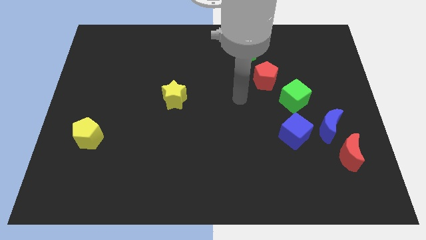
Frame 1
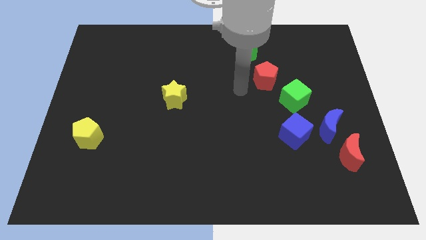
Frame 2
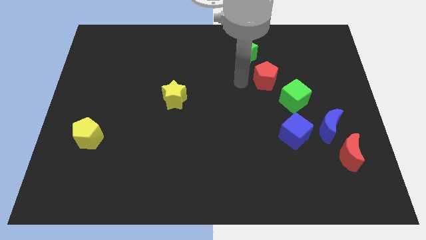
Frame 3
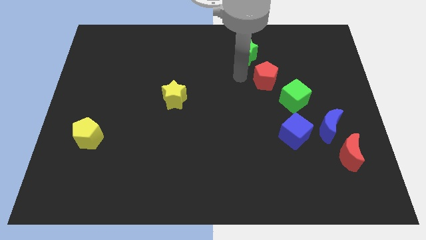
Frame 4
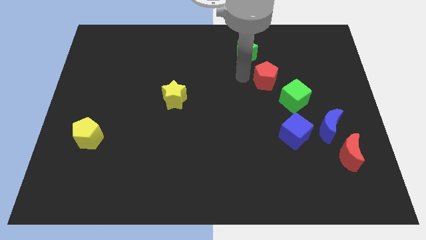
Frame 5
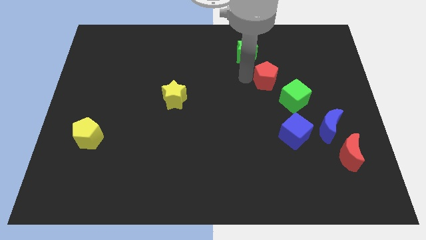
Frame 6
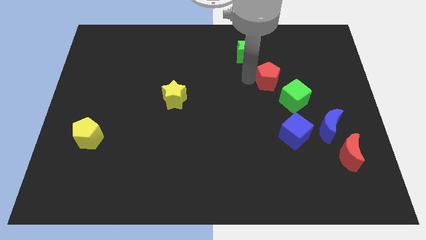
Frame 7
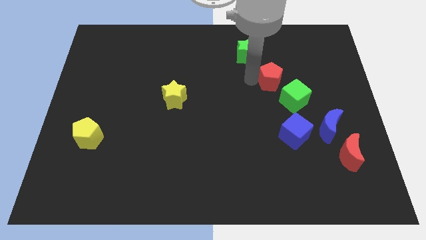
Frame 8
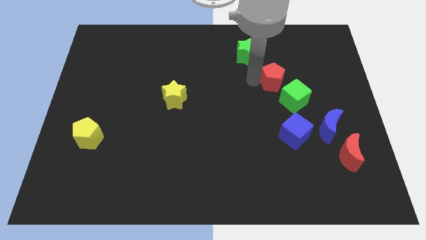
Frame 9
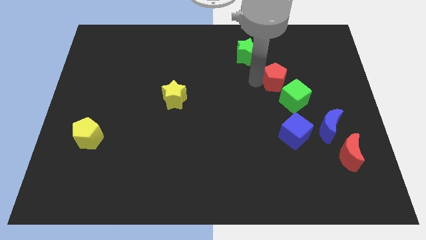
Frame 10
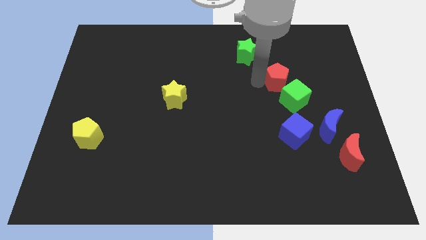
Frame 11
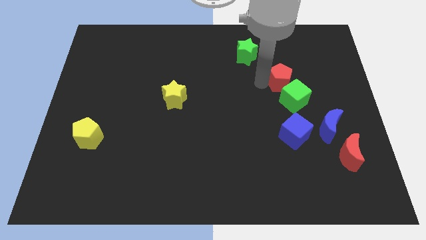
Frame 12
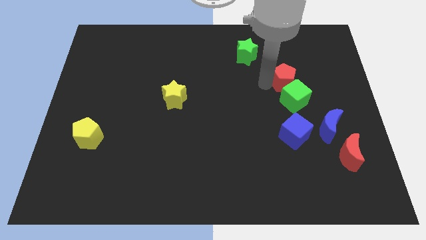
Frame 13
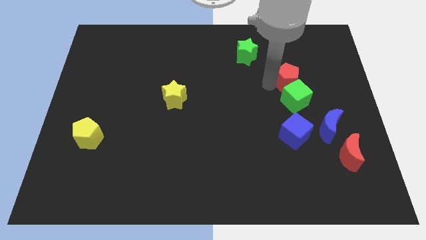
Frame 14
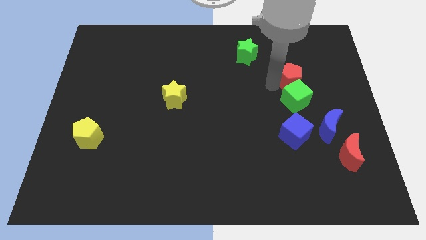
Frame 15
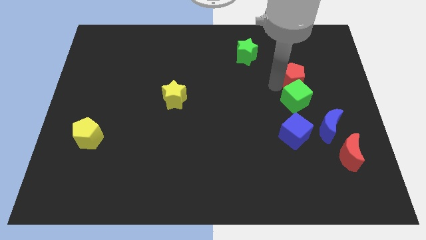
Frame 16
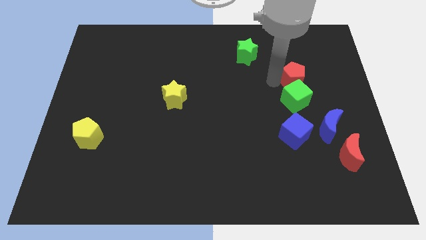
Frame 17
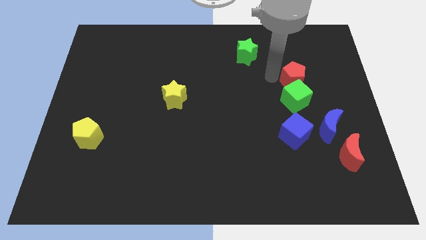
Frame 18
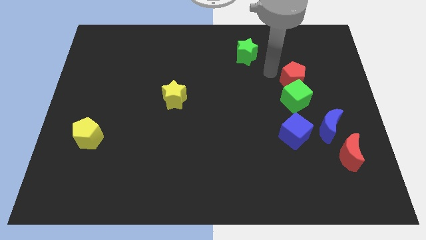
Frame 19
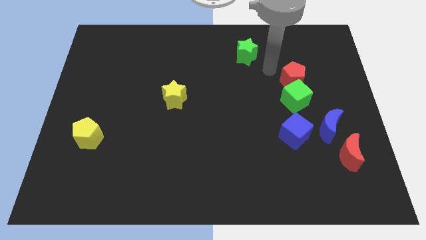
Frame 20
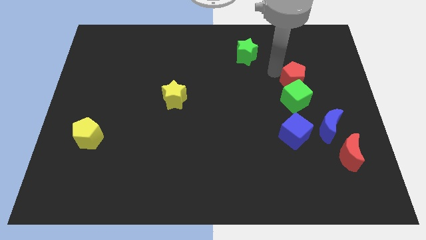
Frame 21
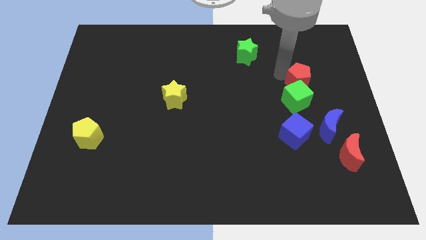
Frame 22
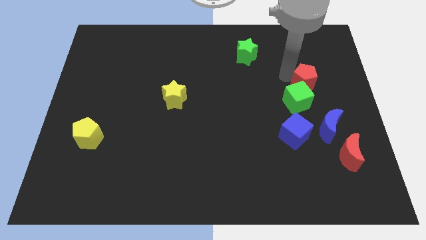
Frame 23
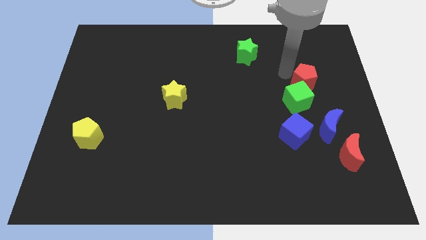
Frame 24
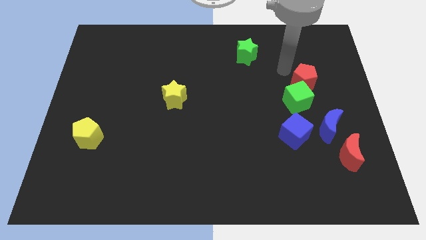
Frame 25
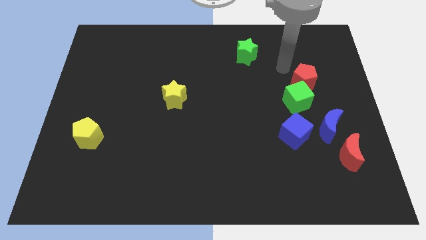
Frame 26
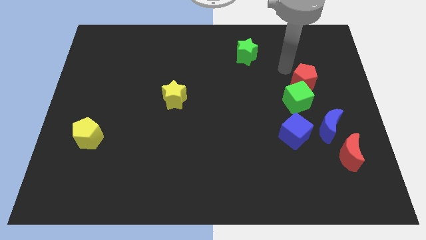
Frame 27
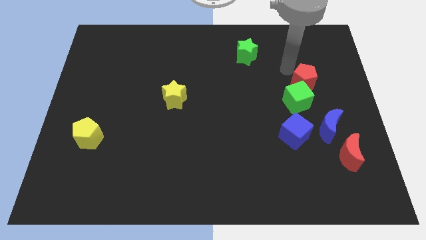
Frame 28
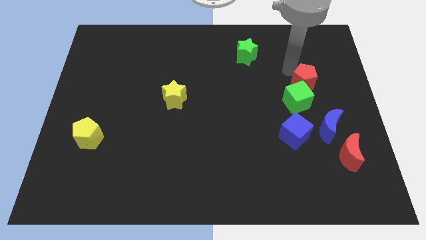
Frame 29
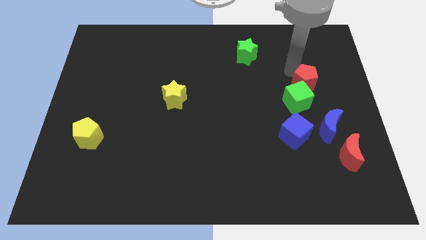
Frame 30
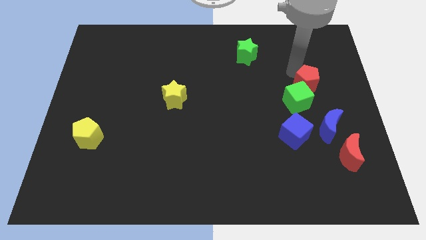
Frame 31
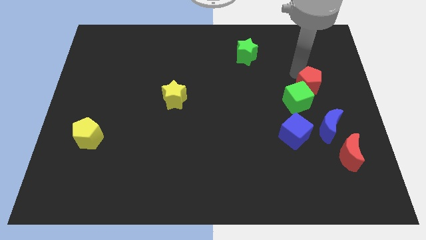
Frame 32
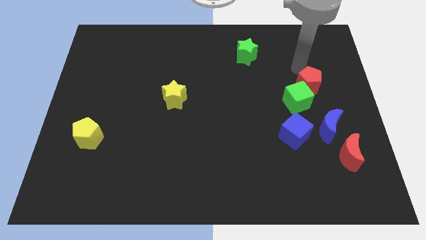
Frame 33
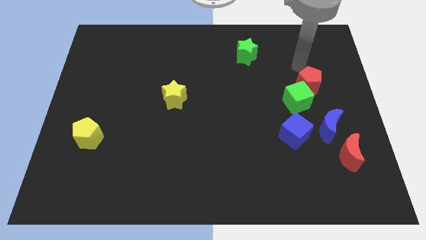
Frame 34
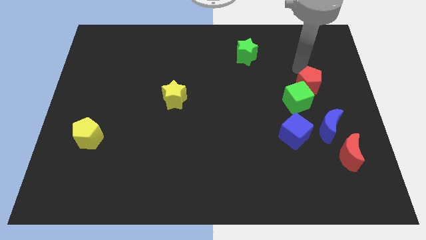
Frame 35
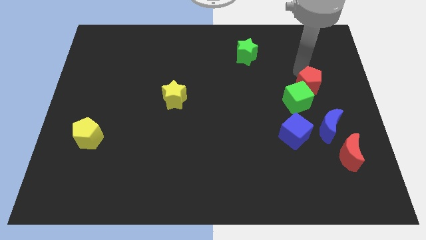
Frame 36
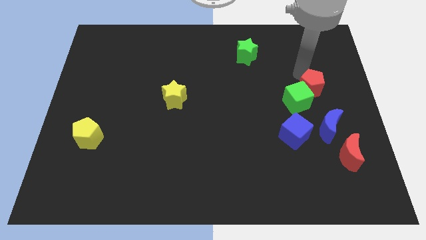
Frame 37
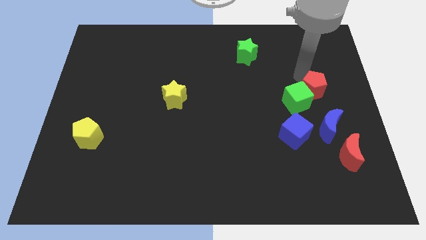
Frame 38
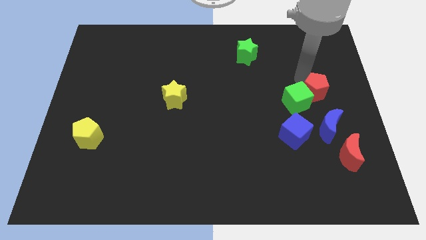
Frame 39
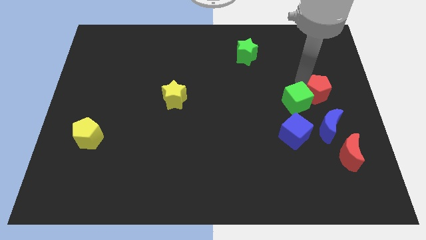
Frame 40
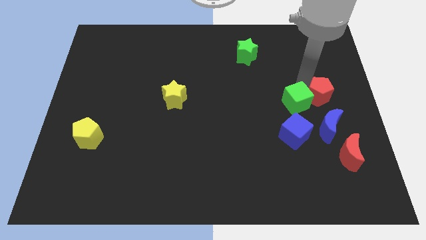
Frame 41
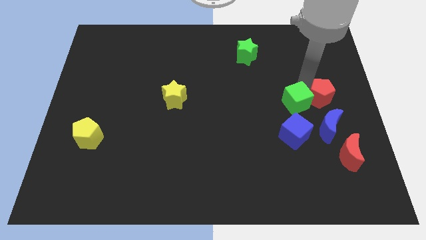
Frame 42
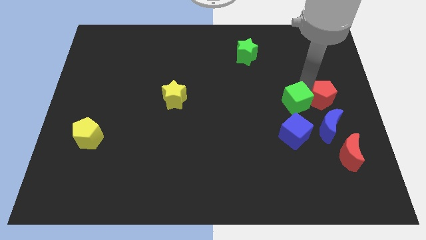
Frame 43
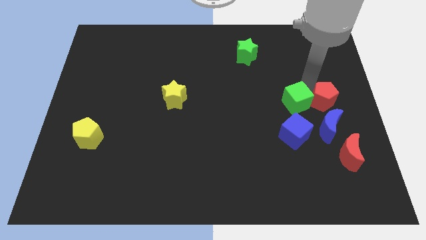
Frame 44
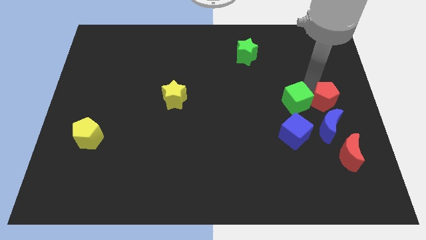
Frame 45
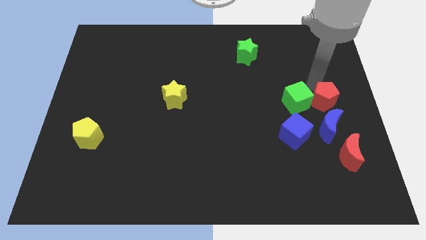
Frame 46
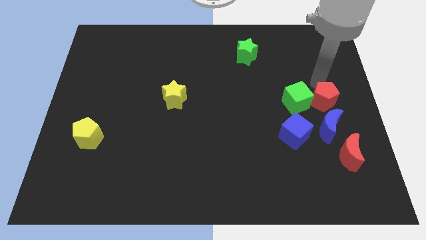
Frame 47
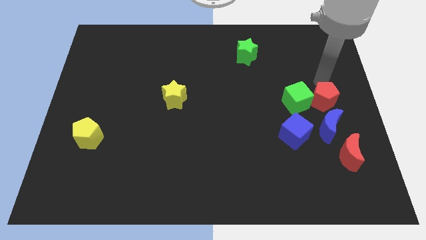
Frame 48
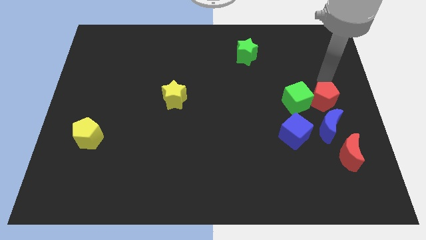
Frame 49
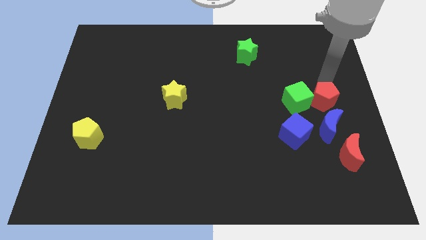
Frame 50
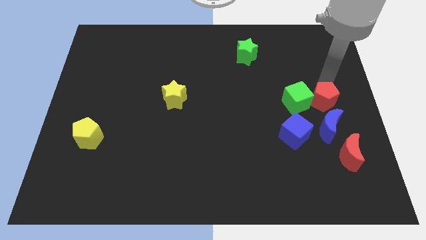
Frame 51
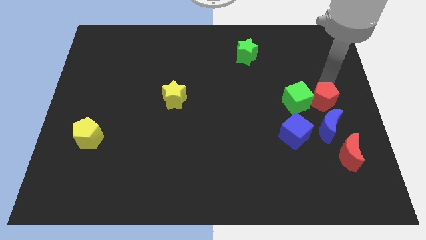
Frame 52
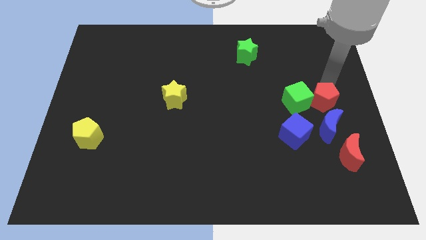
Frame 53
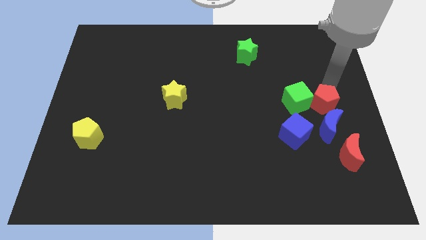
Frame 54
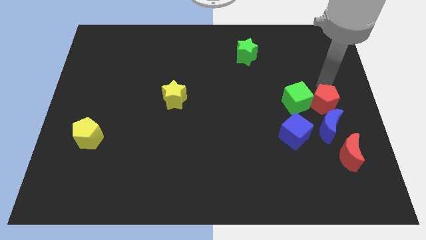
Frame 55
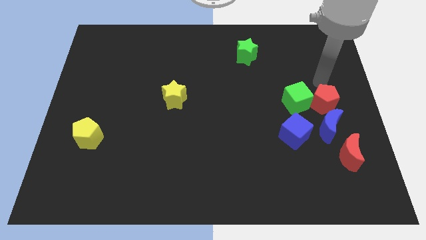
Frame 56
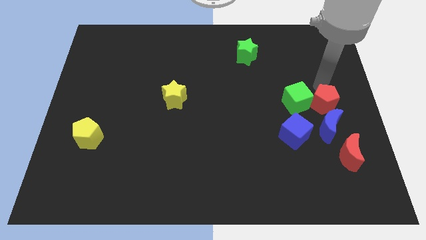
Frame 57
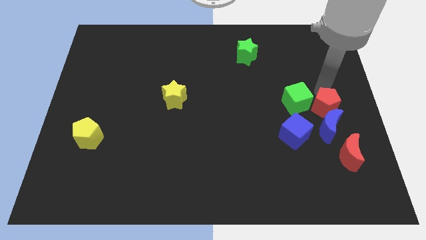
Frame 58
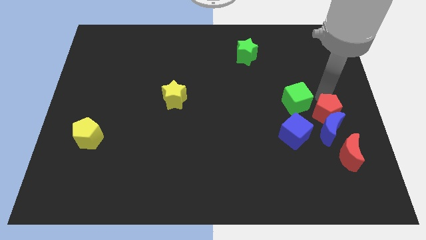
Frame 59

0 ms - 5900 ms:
push the red pentagon next to the blue moon

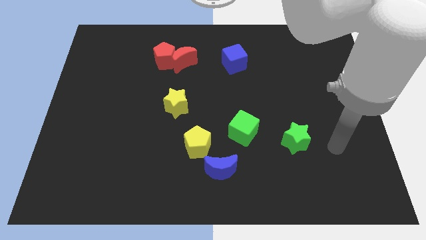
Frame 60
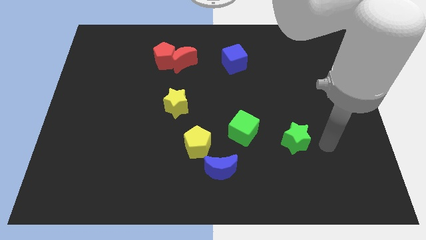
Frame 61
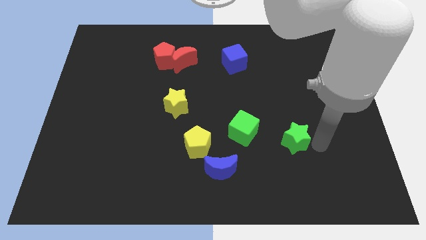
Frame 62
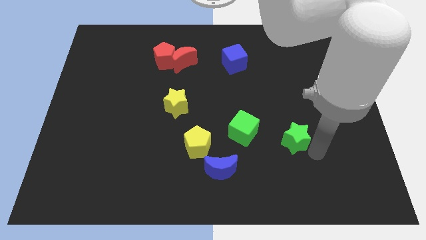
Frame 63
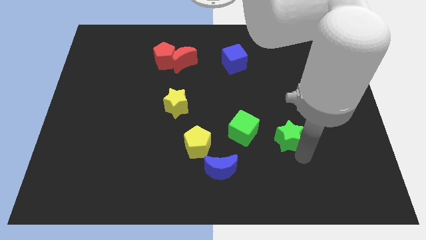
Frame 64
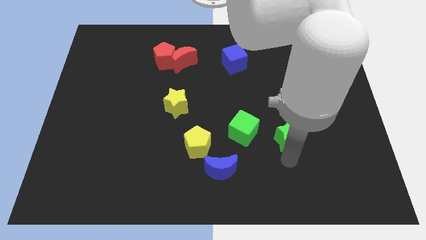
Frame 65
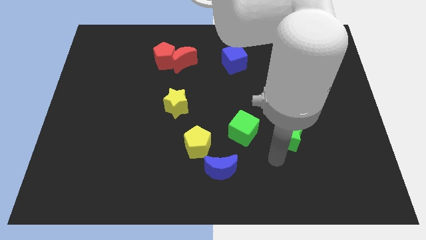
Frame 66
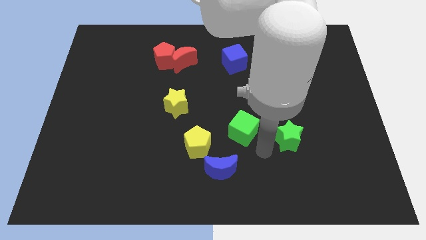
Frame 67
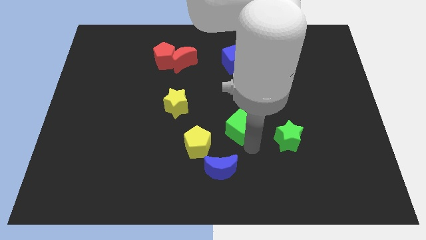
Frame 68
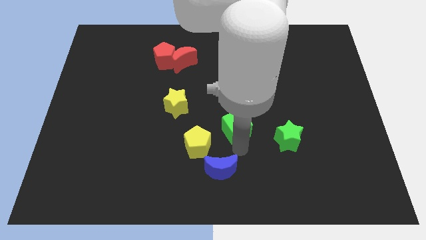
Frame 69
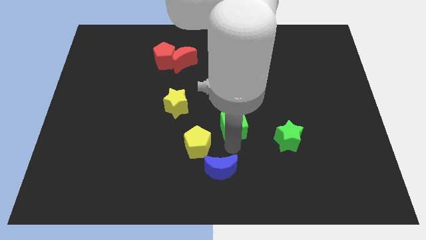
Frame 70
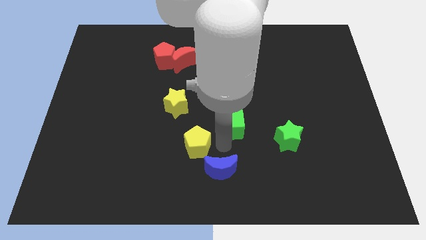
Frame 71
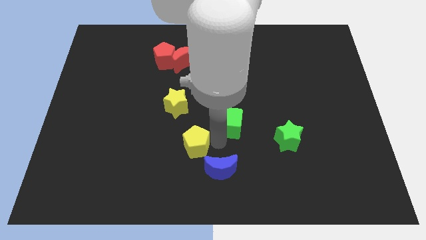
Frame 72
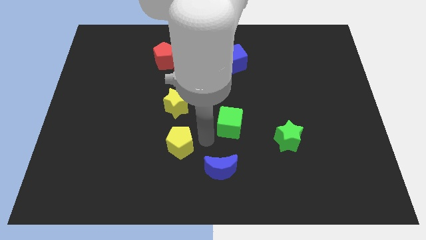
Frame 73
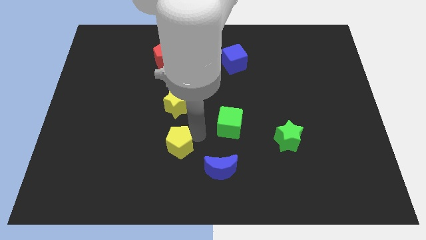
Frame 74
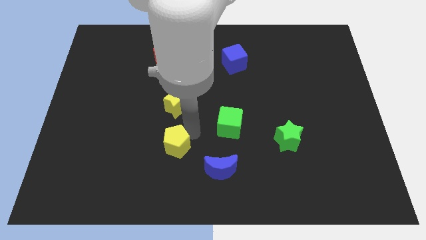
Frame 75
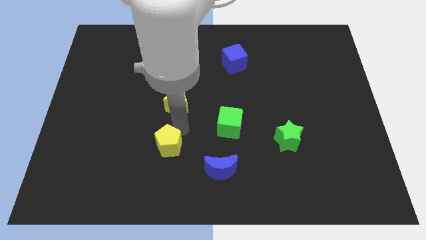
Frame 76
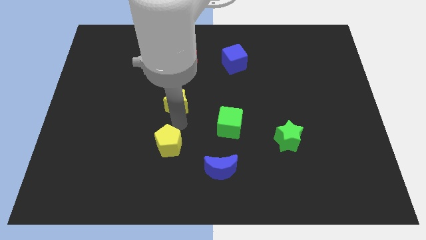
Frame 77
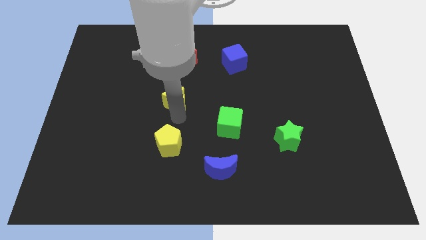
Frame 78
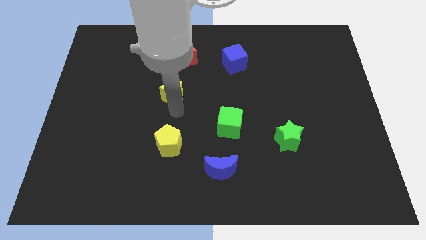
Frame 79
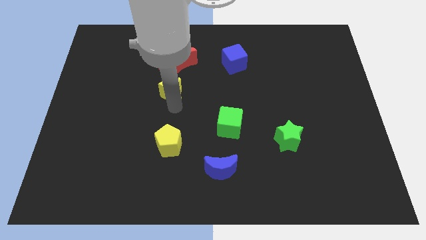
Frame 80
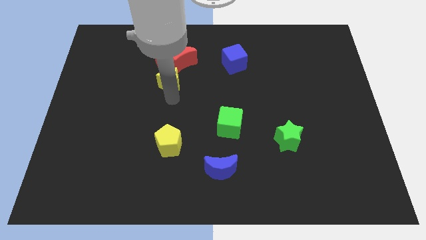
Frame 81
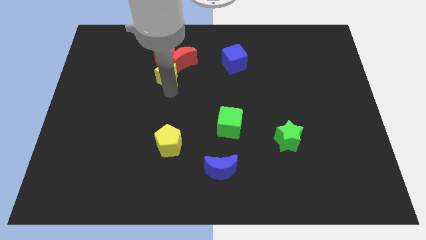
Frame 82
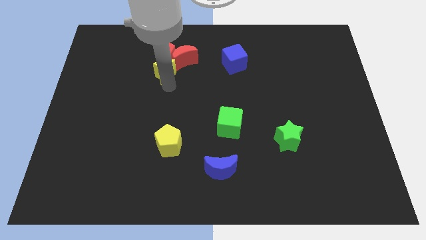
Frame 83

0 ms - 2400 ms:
slide the yellow star close to the red pentagon
